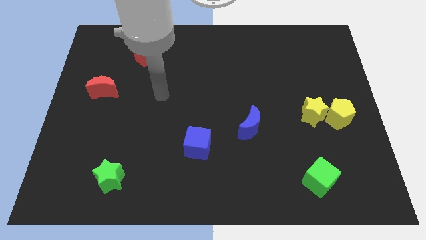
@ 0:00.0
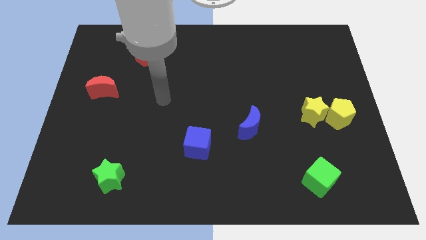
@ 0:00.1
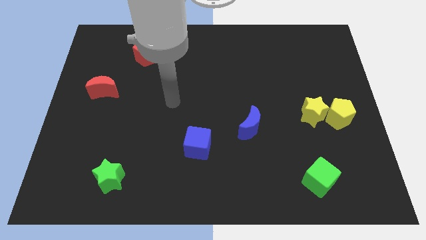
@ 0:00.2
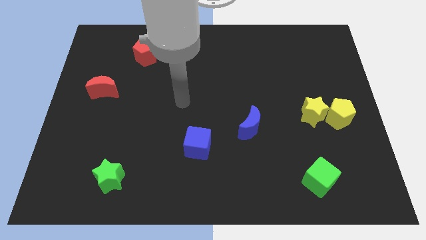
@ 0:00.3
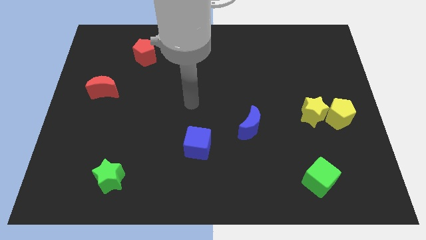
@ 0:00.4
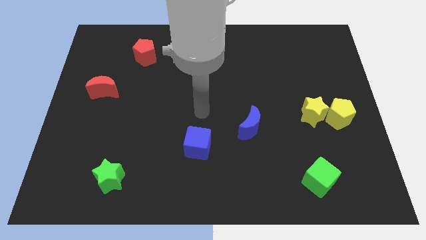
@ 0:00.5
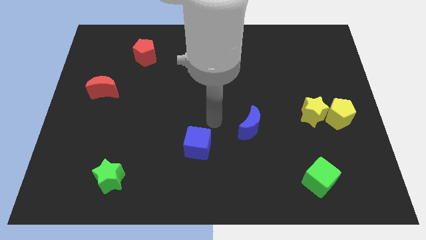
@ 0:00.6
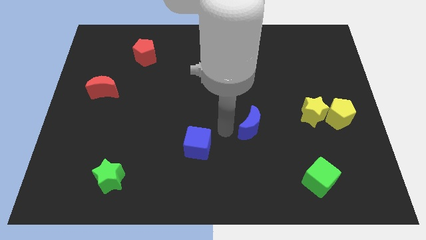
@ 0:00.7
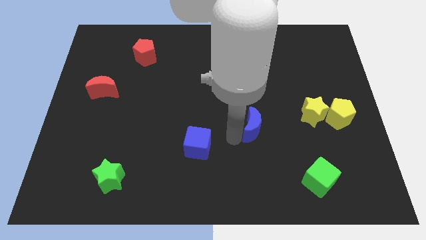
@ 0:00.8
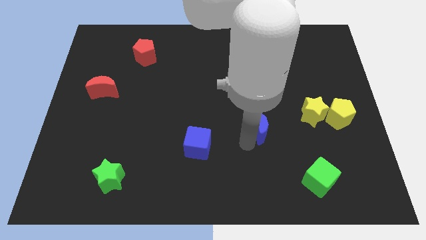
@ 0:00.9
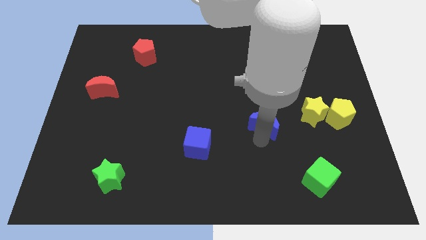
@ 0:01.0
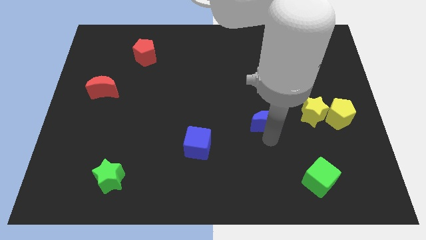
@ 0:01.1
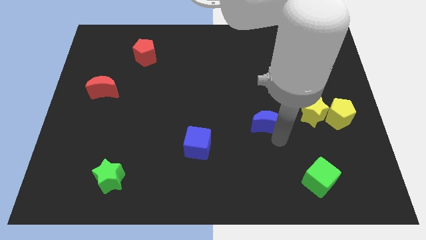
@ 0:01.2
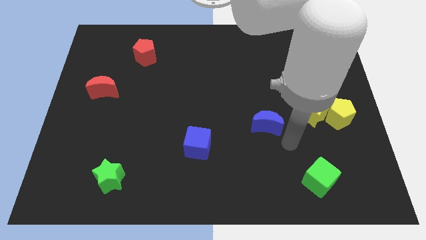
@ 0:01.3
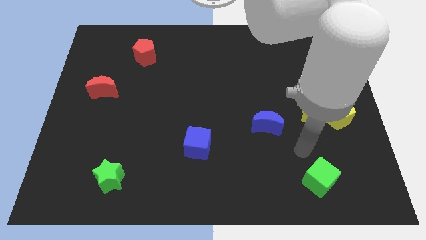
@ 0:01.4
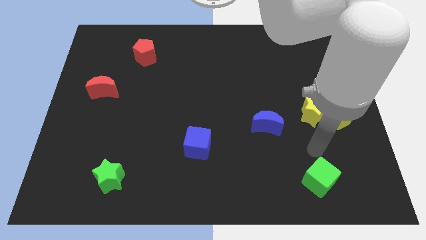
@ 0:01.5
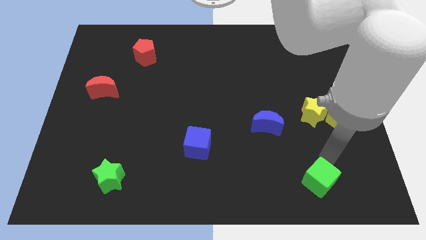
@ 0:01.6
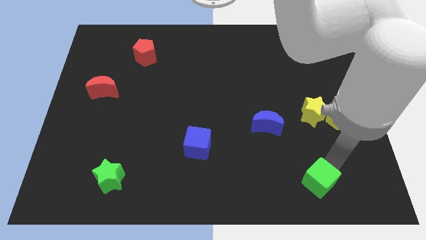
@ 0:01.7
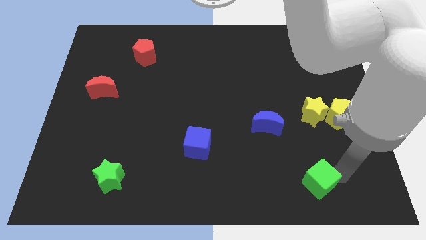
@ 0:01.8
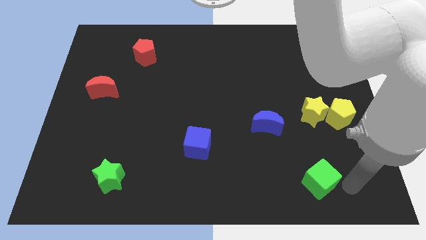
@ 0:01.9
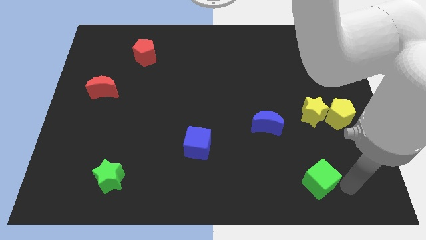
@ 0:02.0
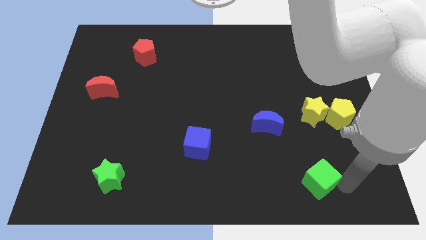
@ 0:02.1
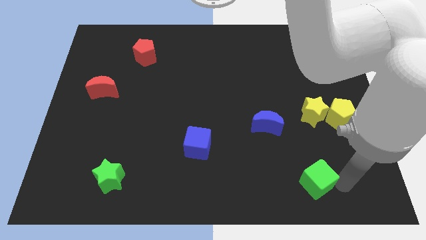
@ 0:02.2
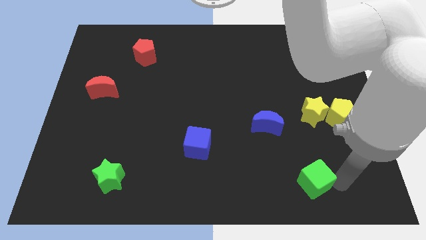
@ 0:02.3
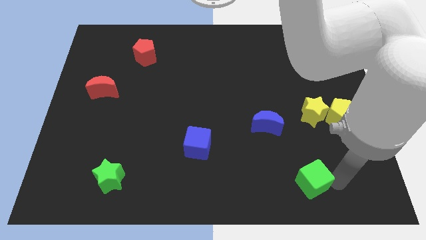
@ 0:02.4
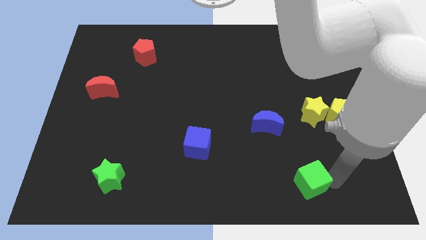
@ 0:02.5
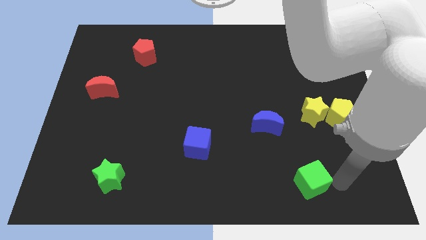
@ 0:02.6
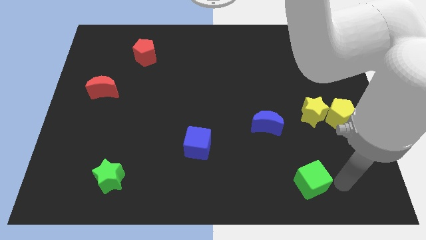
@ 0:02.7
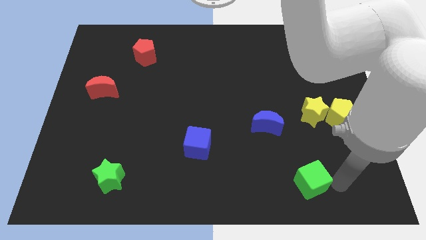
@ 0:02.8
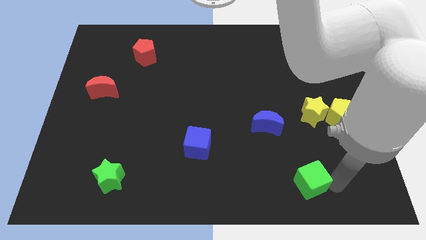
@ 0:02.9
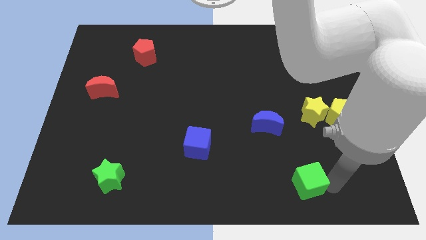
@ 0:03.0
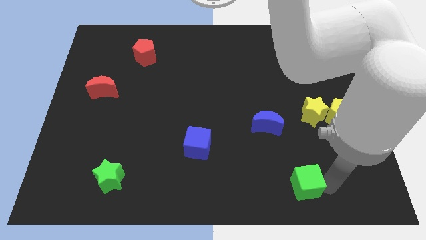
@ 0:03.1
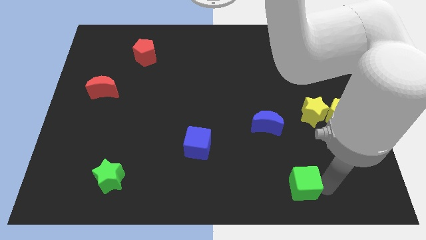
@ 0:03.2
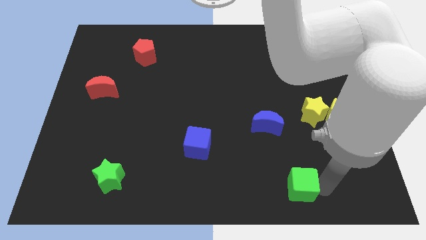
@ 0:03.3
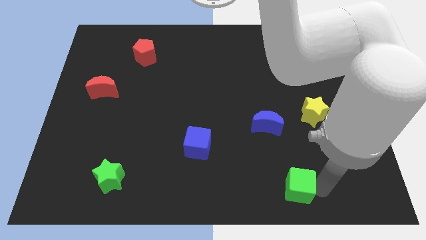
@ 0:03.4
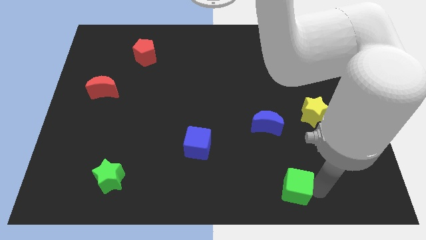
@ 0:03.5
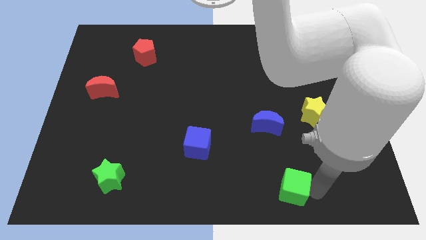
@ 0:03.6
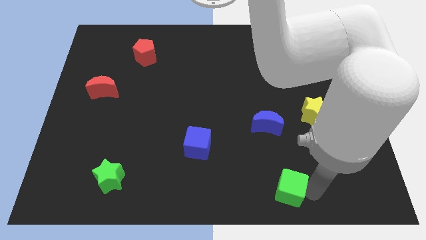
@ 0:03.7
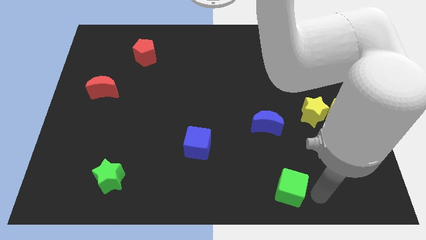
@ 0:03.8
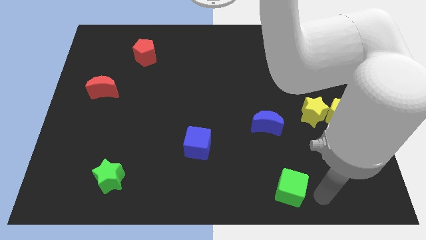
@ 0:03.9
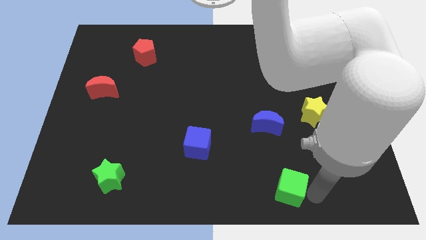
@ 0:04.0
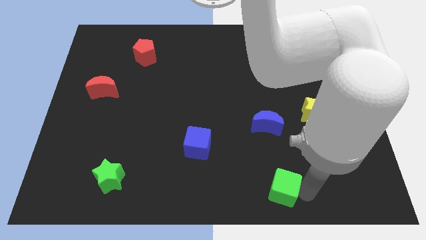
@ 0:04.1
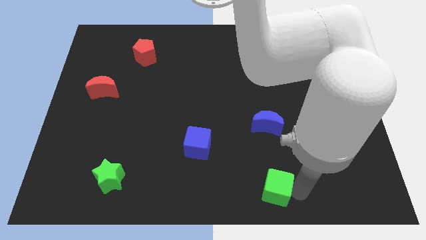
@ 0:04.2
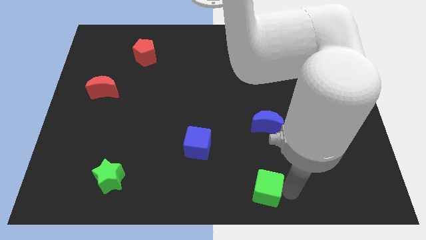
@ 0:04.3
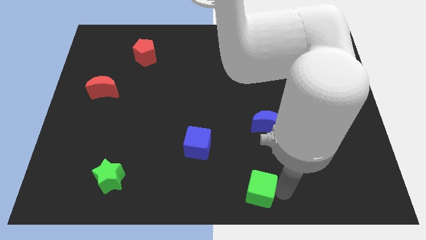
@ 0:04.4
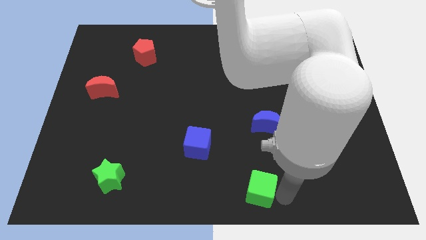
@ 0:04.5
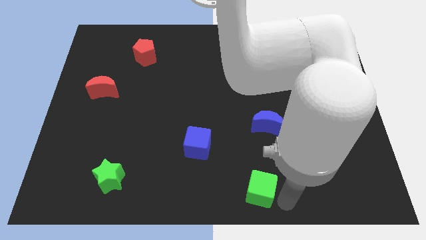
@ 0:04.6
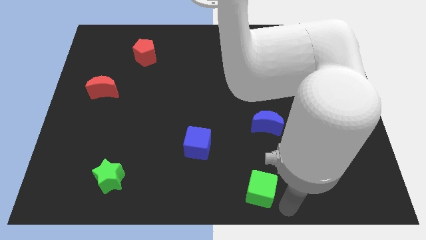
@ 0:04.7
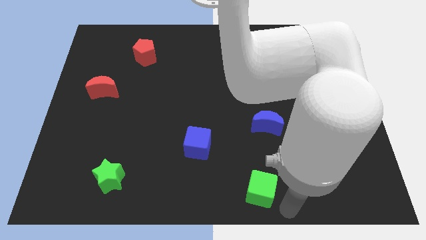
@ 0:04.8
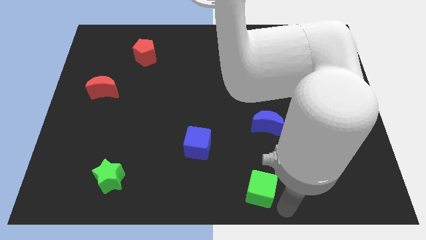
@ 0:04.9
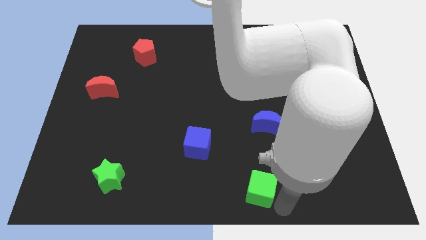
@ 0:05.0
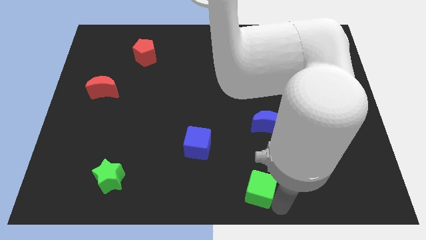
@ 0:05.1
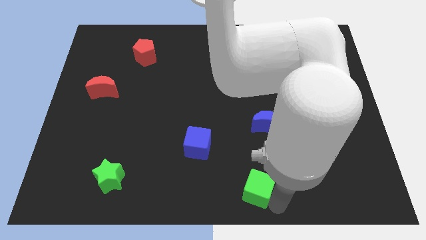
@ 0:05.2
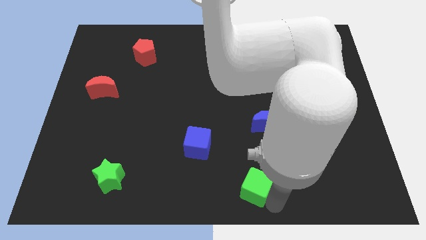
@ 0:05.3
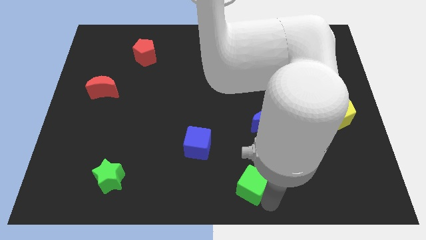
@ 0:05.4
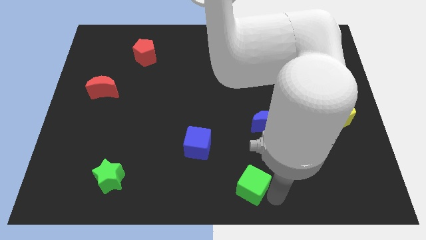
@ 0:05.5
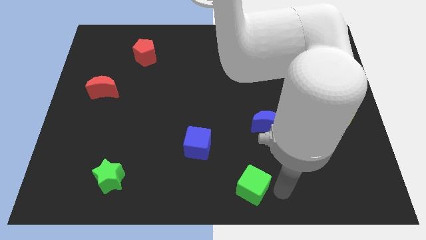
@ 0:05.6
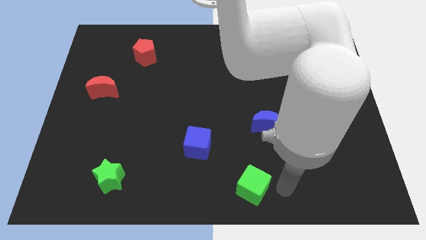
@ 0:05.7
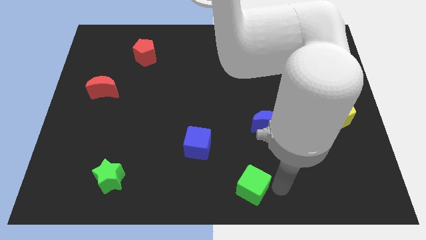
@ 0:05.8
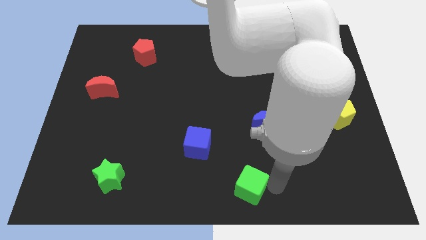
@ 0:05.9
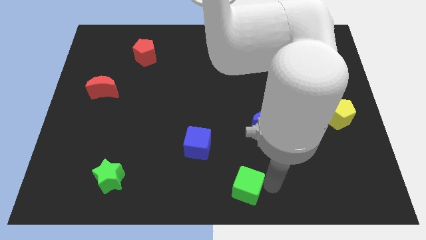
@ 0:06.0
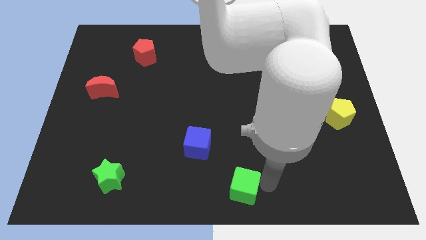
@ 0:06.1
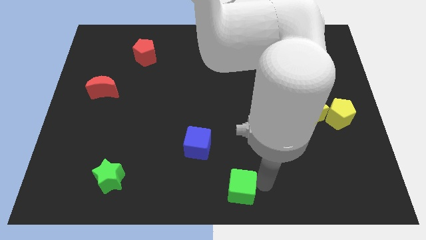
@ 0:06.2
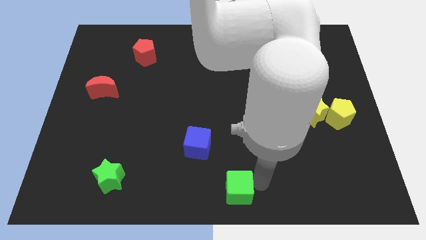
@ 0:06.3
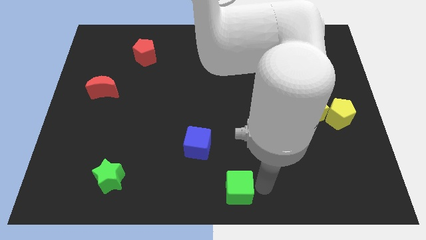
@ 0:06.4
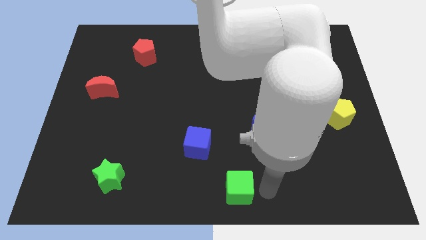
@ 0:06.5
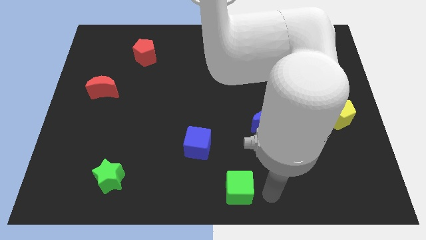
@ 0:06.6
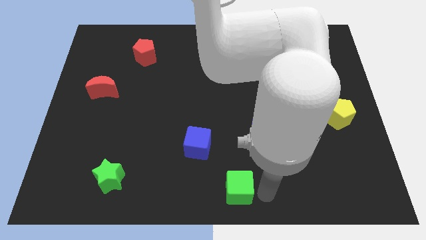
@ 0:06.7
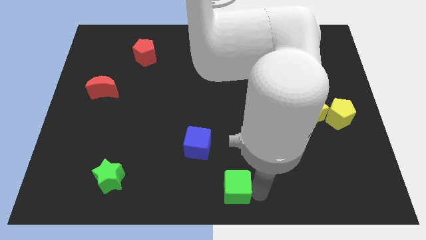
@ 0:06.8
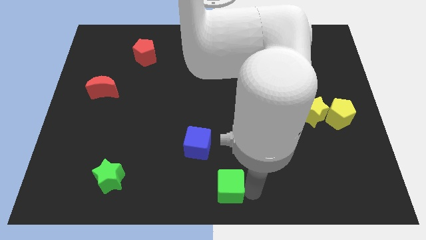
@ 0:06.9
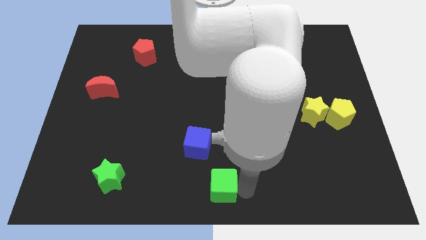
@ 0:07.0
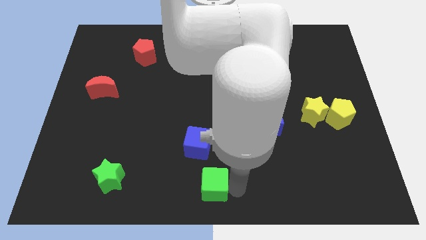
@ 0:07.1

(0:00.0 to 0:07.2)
move the green cube left

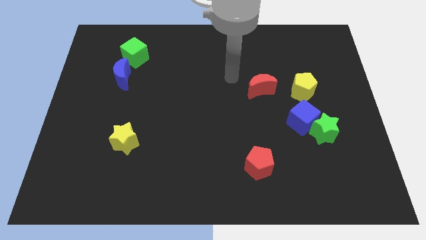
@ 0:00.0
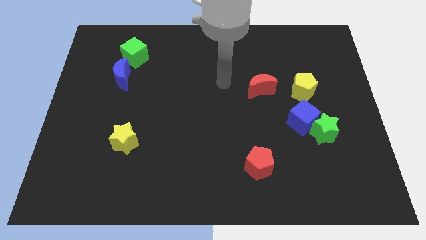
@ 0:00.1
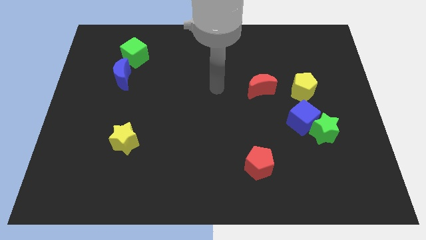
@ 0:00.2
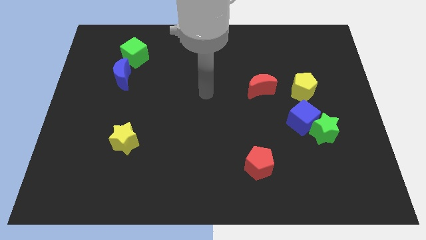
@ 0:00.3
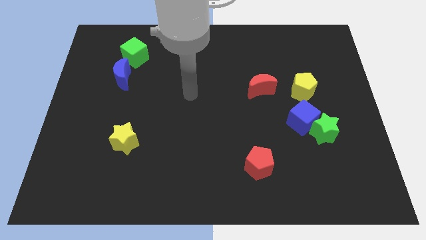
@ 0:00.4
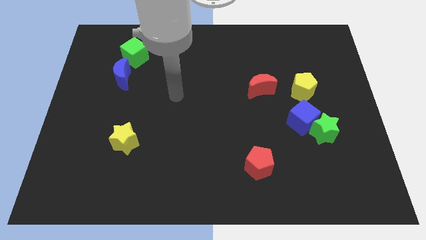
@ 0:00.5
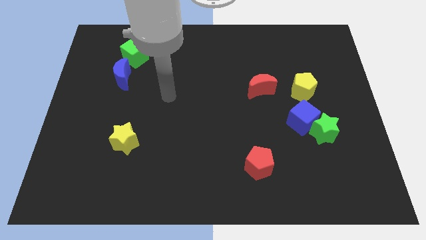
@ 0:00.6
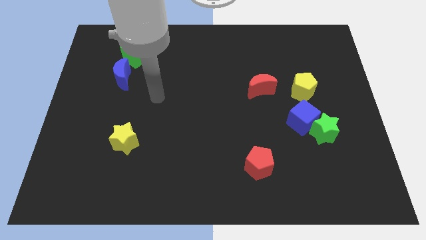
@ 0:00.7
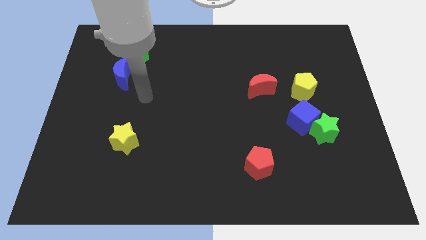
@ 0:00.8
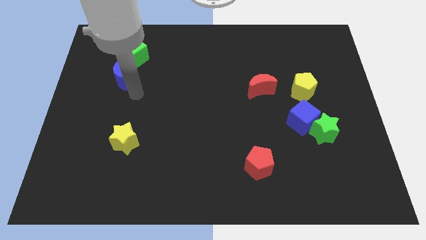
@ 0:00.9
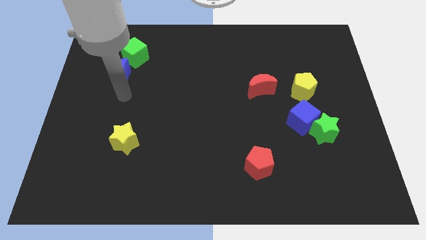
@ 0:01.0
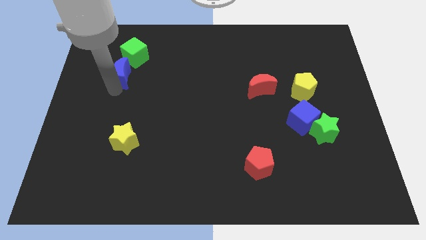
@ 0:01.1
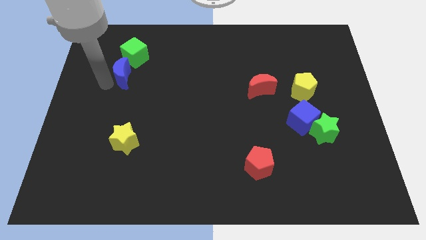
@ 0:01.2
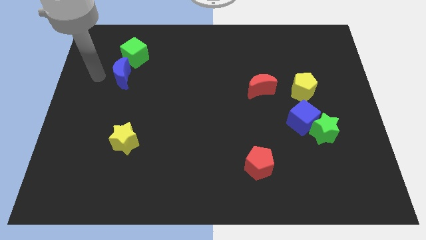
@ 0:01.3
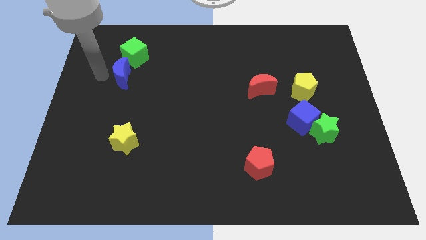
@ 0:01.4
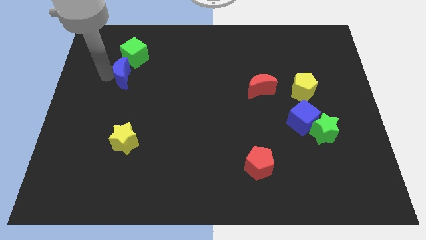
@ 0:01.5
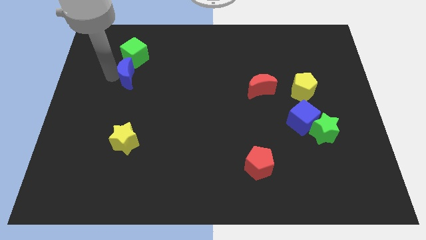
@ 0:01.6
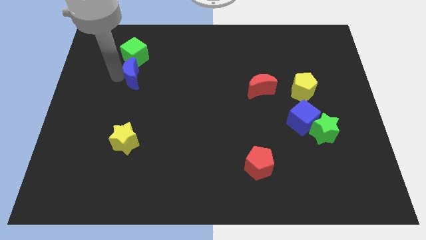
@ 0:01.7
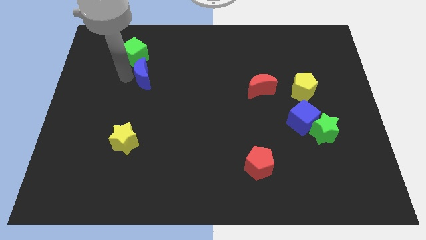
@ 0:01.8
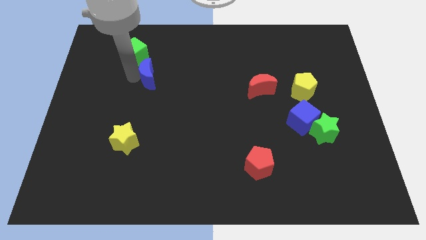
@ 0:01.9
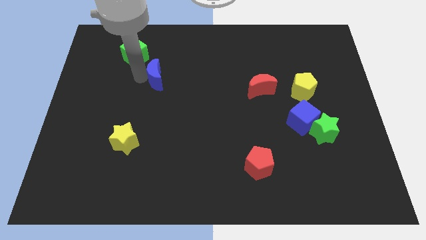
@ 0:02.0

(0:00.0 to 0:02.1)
slightly push the blue moon to the right
